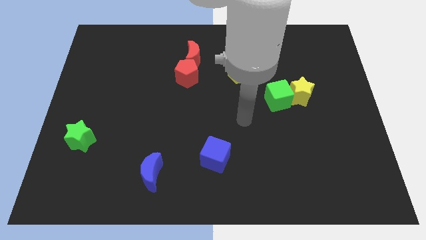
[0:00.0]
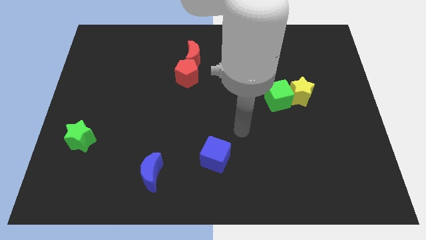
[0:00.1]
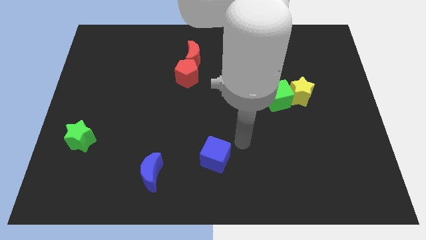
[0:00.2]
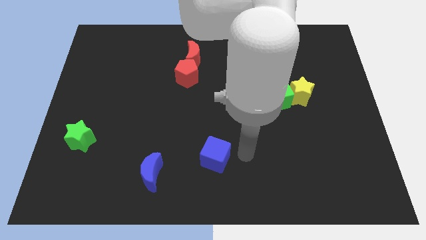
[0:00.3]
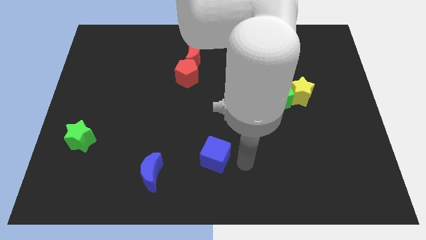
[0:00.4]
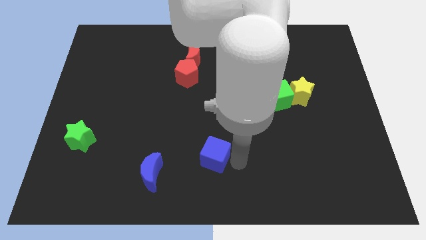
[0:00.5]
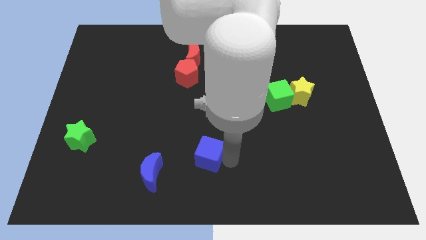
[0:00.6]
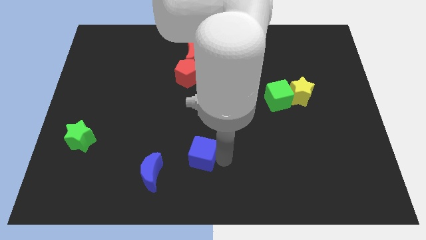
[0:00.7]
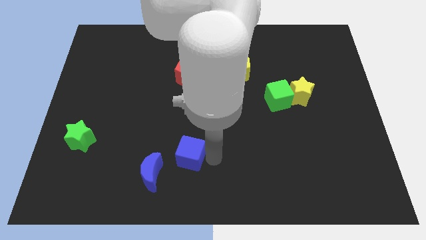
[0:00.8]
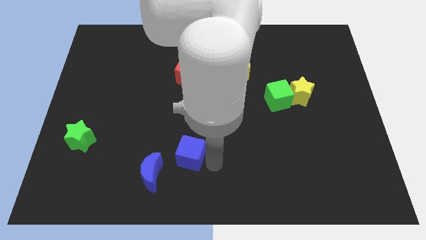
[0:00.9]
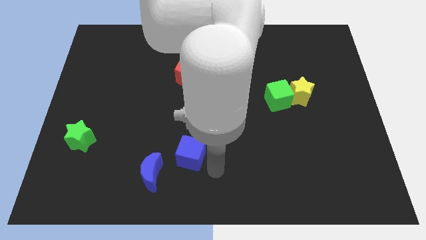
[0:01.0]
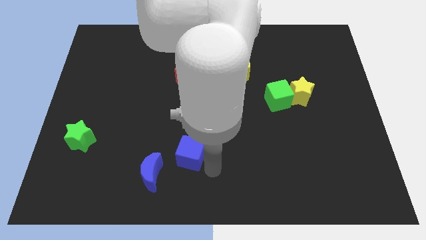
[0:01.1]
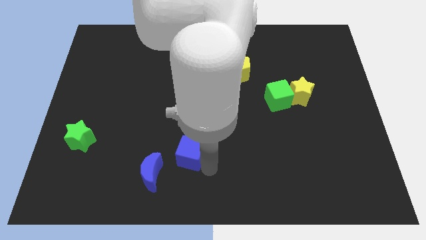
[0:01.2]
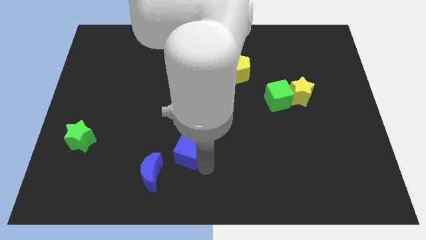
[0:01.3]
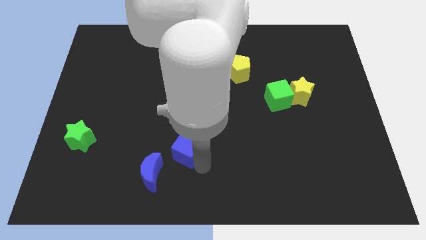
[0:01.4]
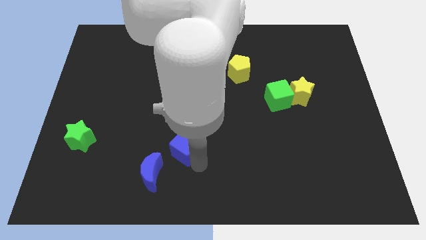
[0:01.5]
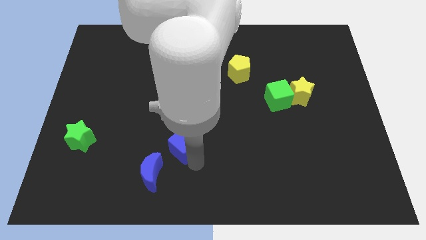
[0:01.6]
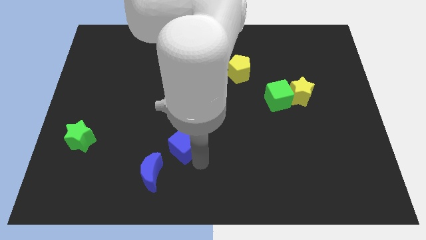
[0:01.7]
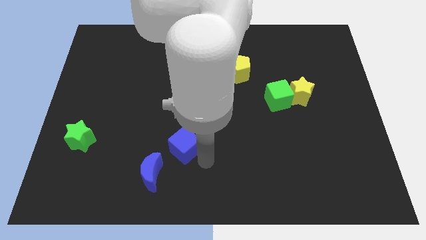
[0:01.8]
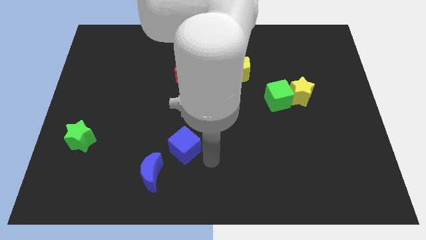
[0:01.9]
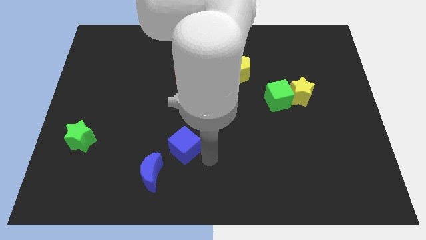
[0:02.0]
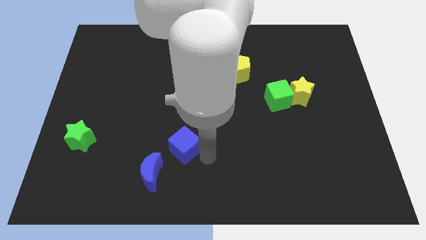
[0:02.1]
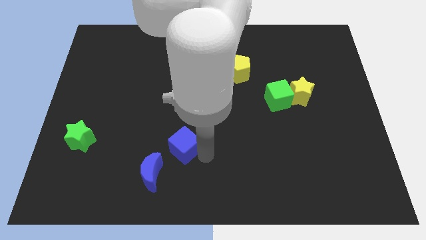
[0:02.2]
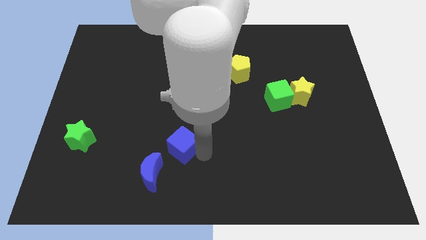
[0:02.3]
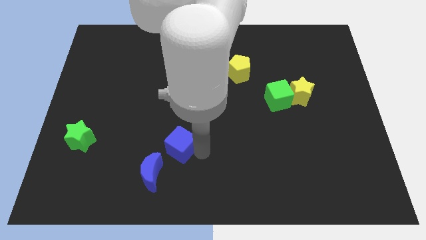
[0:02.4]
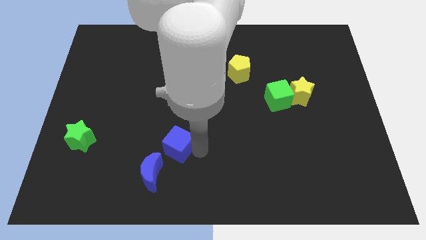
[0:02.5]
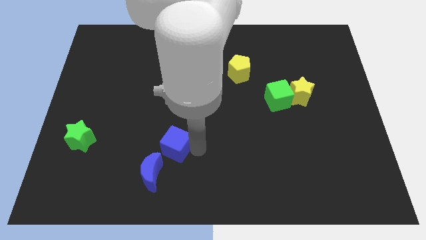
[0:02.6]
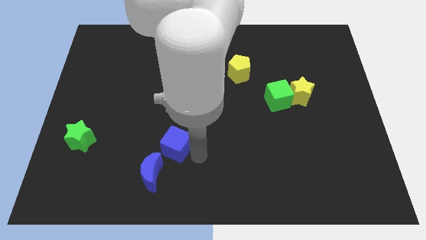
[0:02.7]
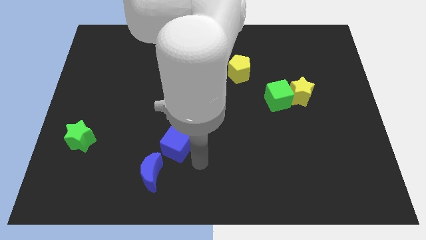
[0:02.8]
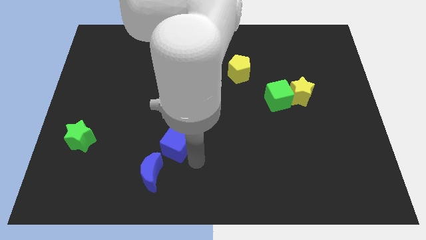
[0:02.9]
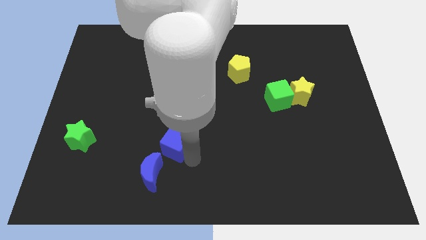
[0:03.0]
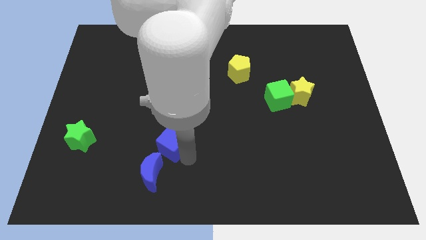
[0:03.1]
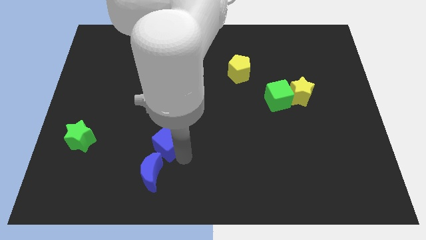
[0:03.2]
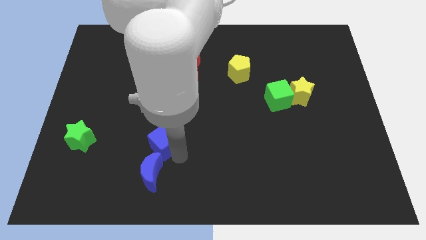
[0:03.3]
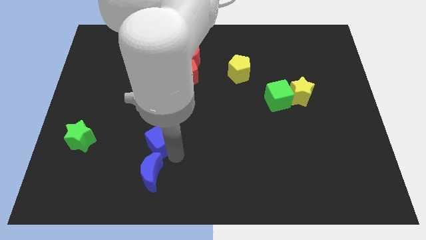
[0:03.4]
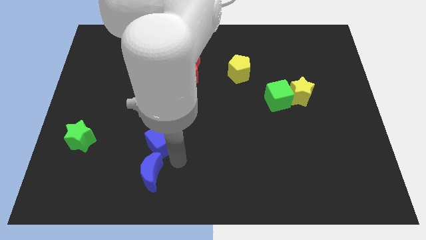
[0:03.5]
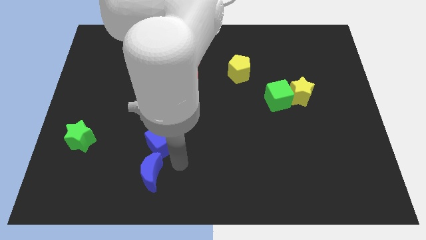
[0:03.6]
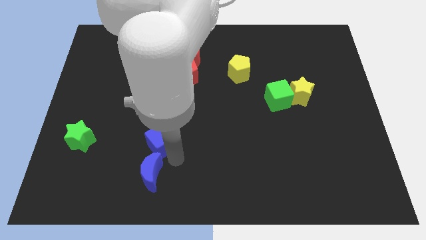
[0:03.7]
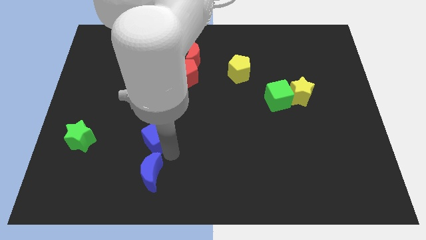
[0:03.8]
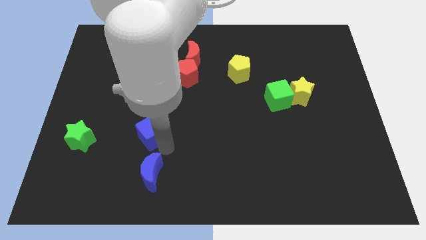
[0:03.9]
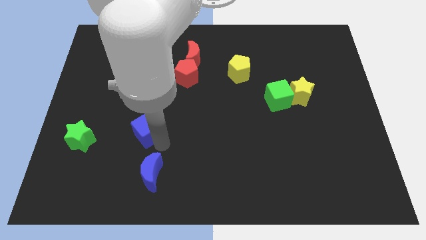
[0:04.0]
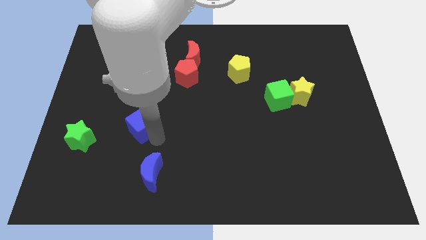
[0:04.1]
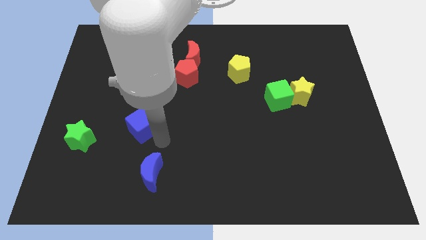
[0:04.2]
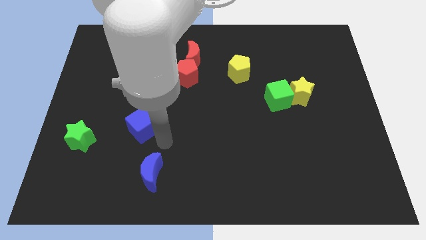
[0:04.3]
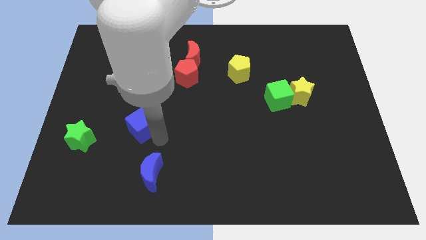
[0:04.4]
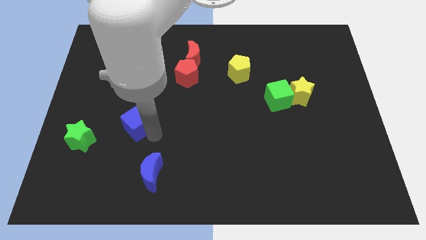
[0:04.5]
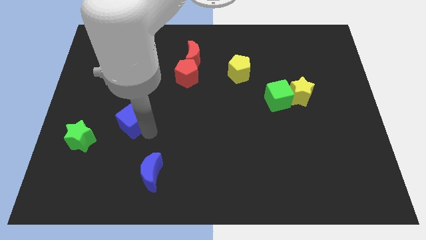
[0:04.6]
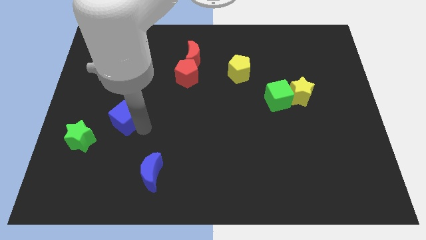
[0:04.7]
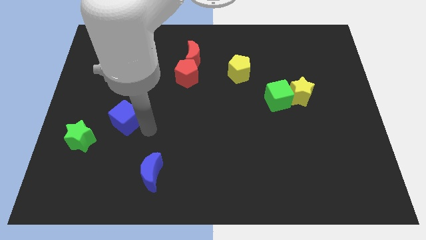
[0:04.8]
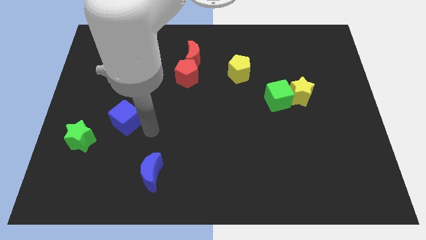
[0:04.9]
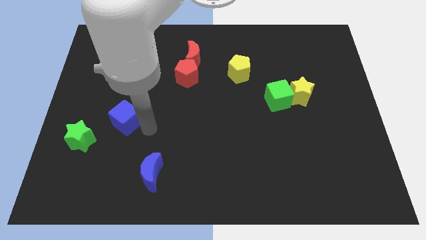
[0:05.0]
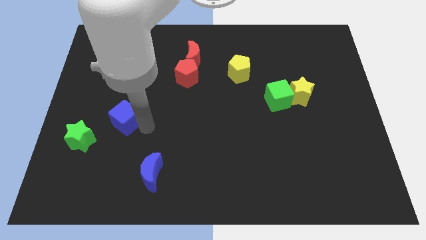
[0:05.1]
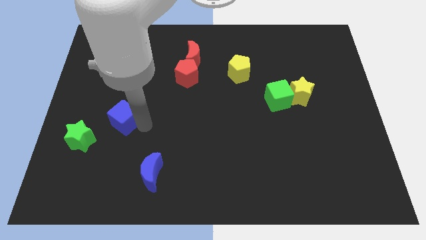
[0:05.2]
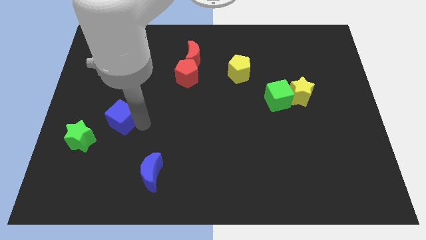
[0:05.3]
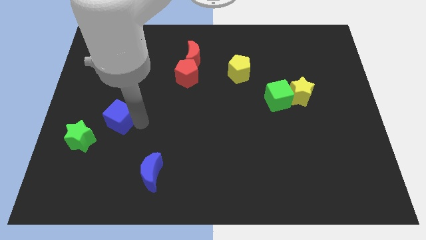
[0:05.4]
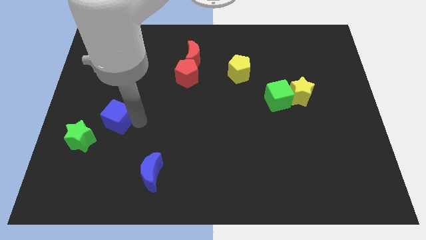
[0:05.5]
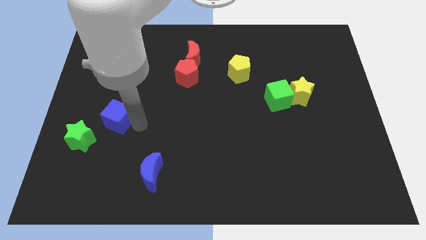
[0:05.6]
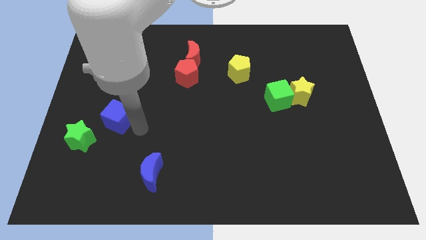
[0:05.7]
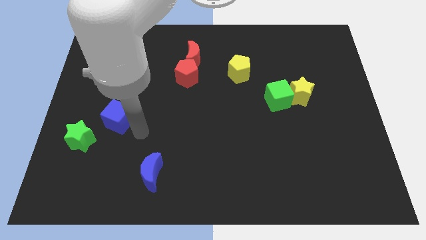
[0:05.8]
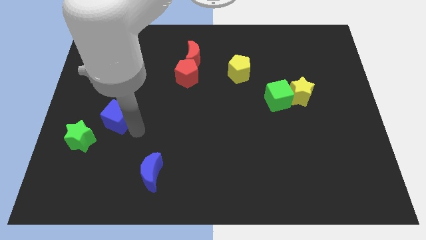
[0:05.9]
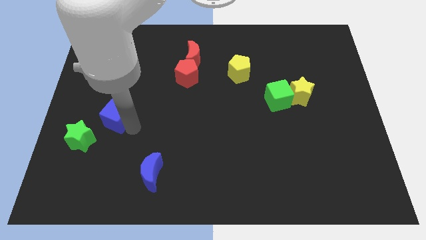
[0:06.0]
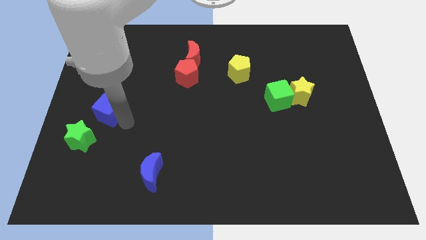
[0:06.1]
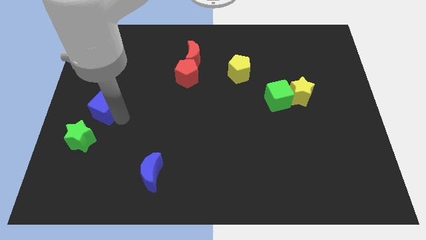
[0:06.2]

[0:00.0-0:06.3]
slide the blue cube to the left side
